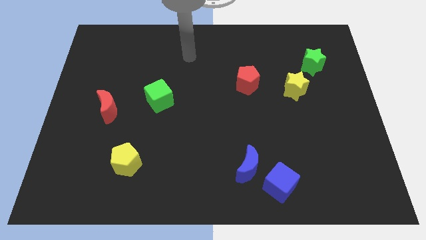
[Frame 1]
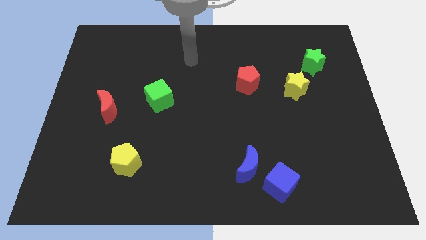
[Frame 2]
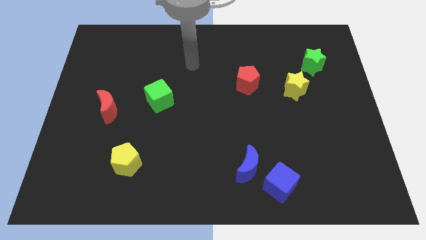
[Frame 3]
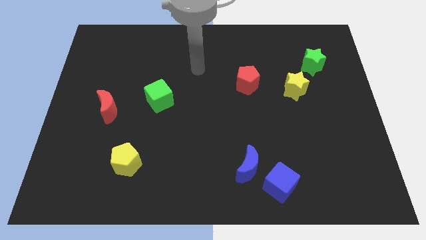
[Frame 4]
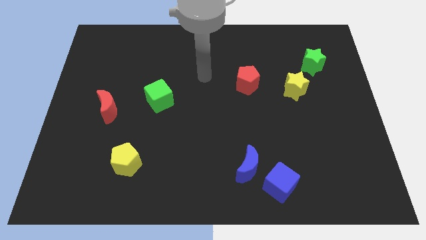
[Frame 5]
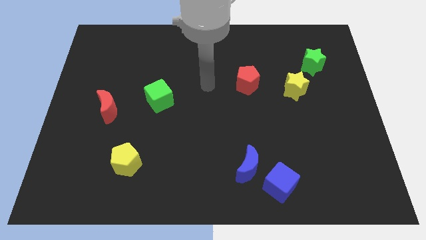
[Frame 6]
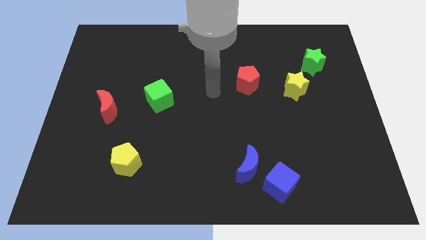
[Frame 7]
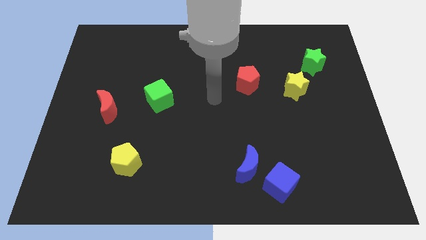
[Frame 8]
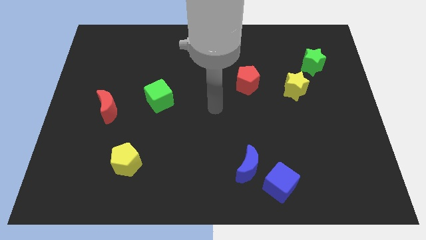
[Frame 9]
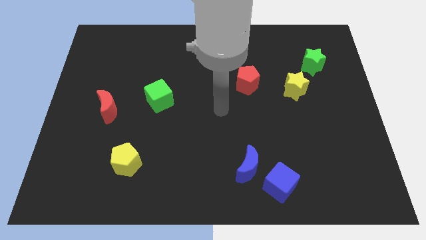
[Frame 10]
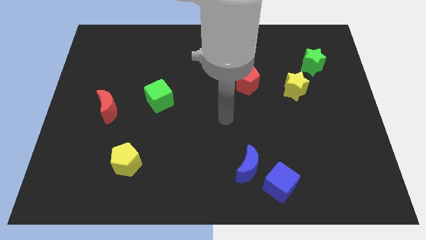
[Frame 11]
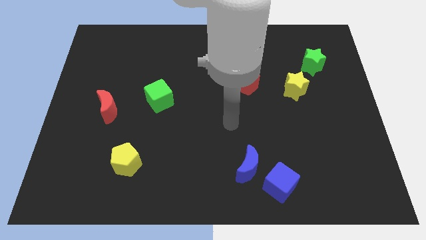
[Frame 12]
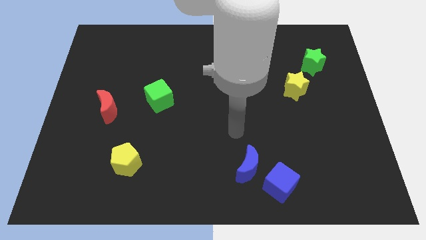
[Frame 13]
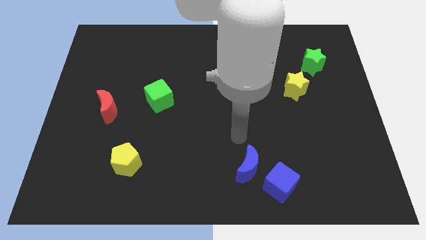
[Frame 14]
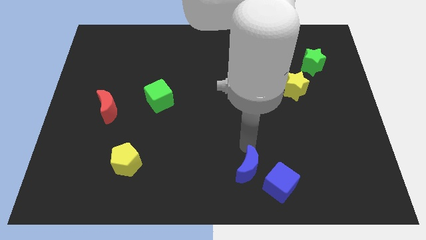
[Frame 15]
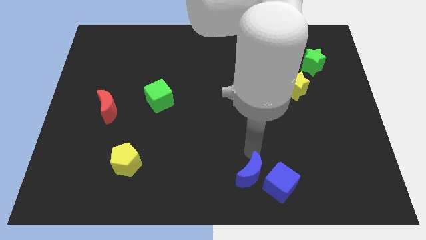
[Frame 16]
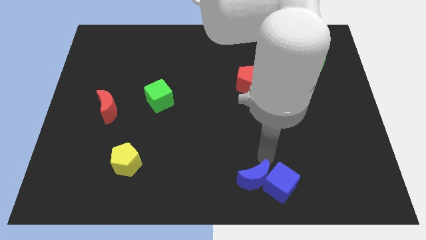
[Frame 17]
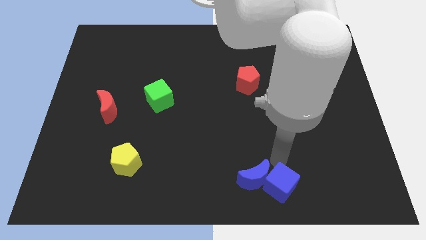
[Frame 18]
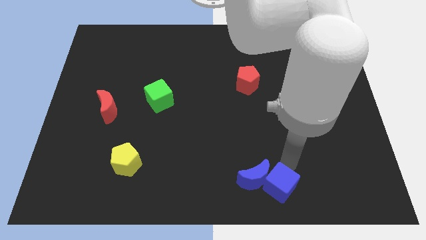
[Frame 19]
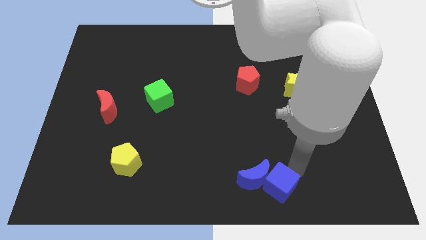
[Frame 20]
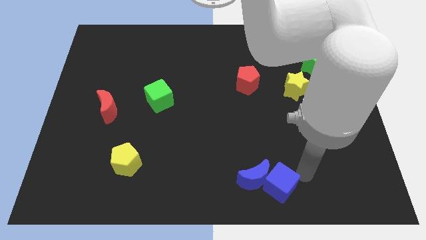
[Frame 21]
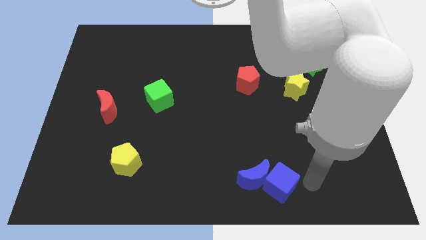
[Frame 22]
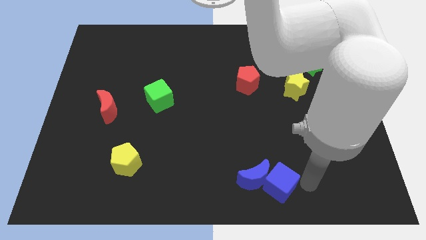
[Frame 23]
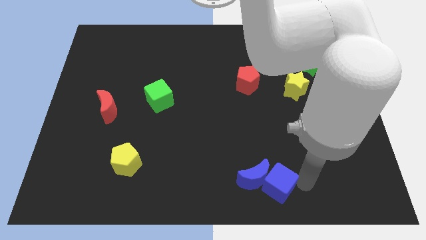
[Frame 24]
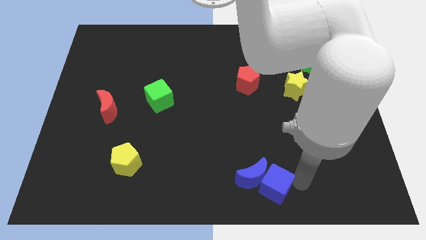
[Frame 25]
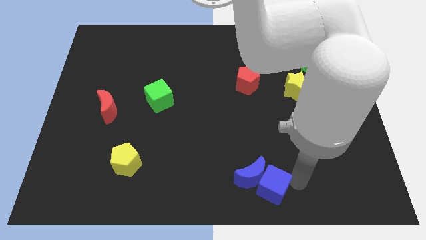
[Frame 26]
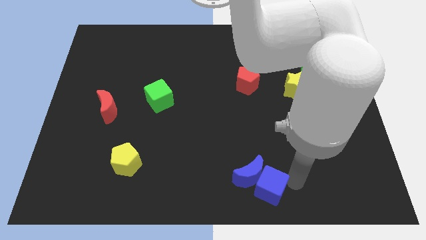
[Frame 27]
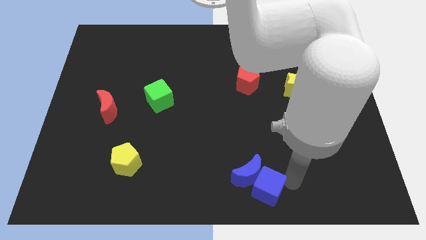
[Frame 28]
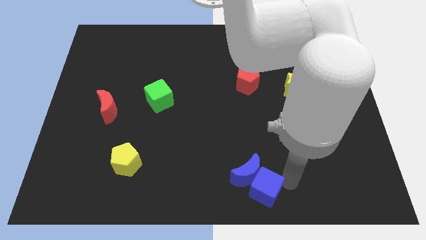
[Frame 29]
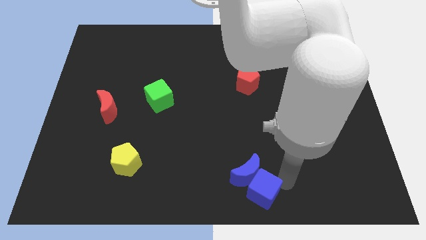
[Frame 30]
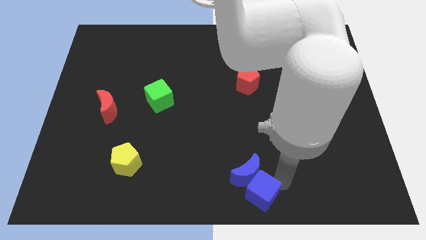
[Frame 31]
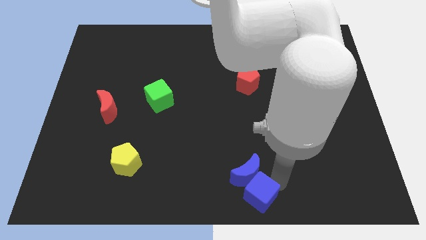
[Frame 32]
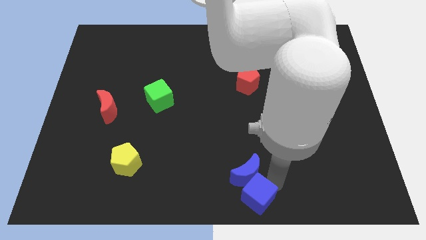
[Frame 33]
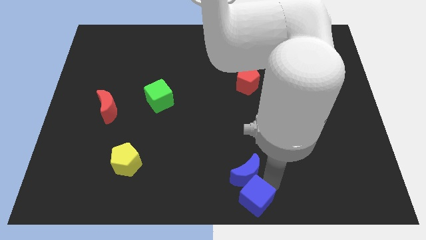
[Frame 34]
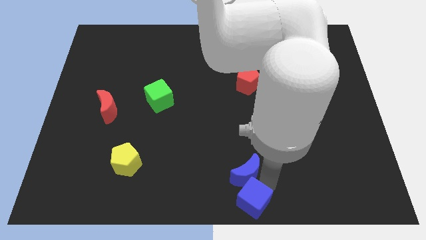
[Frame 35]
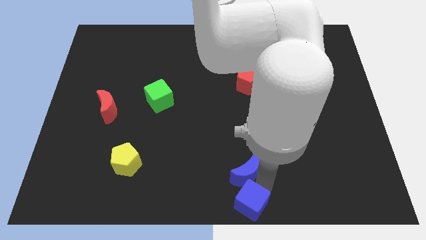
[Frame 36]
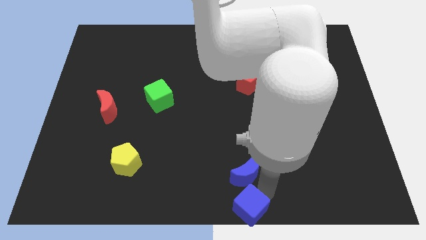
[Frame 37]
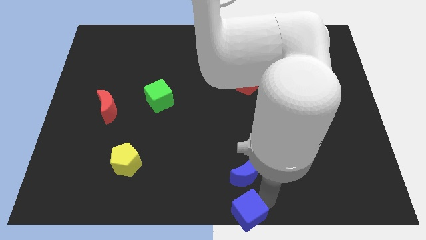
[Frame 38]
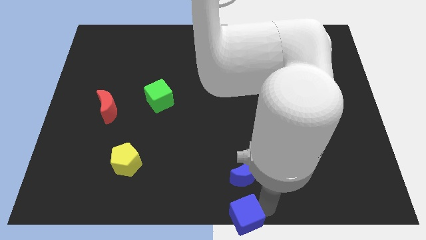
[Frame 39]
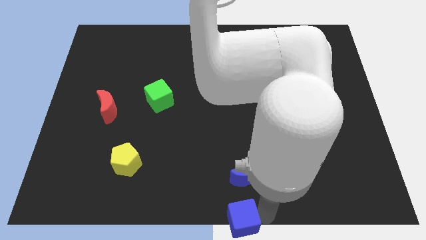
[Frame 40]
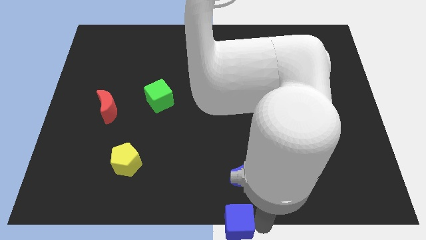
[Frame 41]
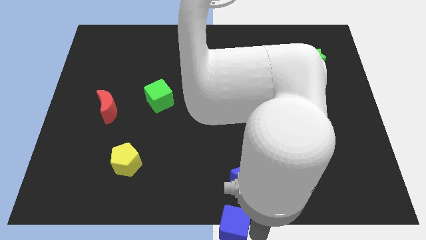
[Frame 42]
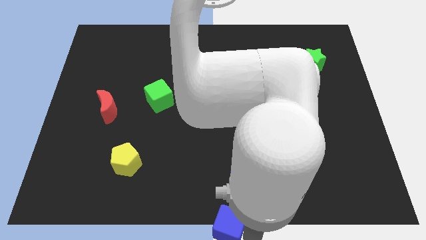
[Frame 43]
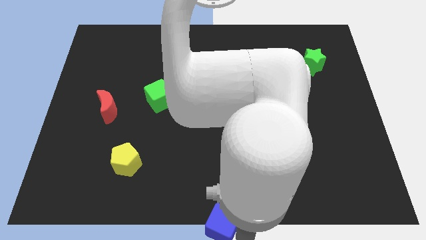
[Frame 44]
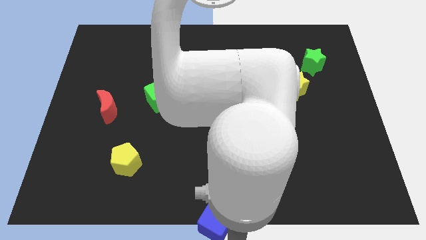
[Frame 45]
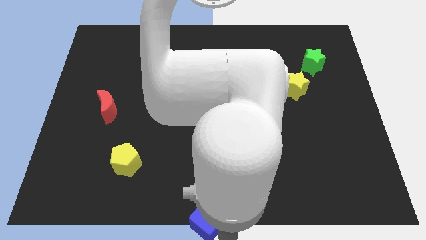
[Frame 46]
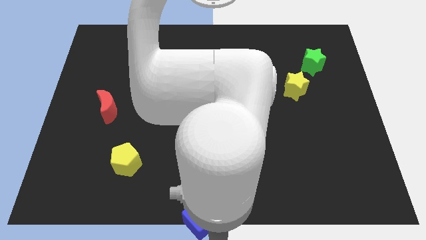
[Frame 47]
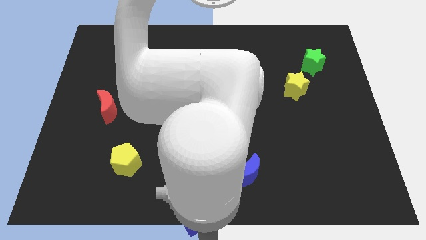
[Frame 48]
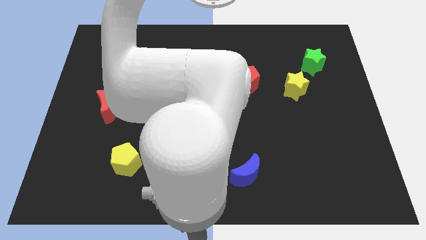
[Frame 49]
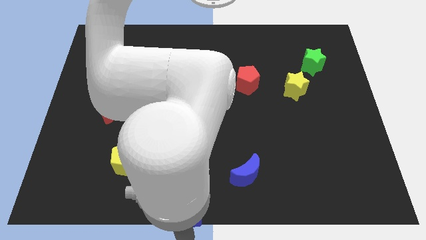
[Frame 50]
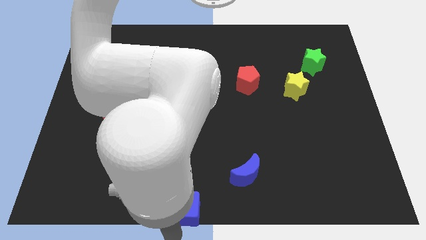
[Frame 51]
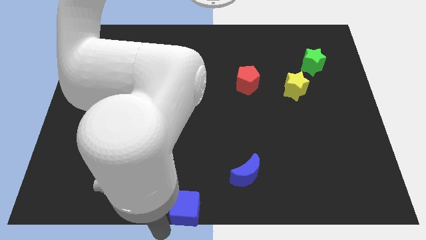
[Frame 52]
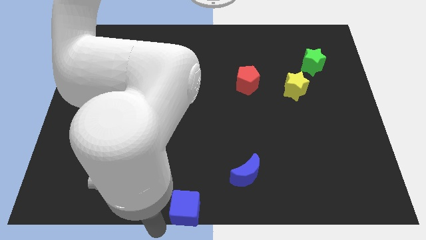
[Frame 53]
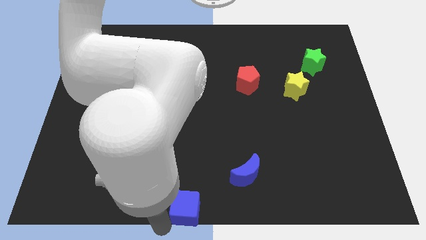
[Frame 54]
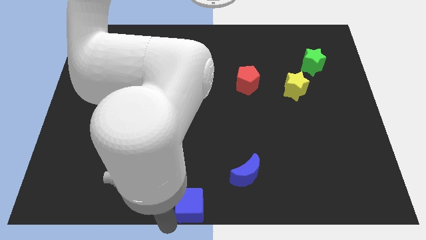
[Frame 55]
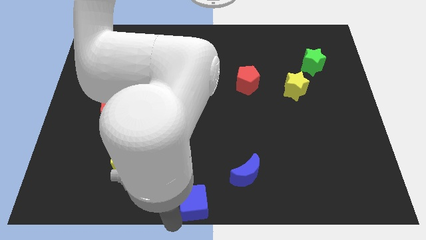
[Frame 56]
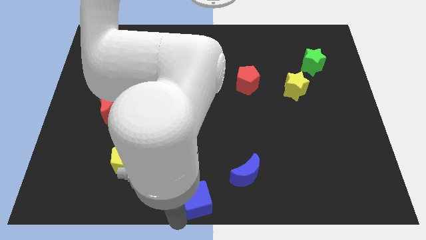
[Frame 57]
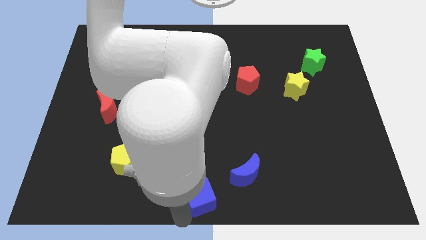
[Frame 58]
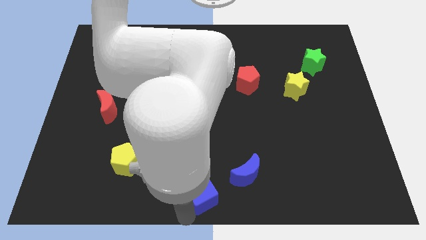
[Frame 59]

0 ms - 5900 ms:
move the blue cube just left of the blue moon

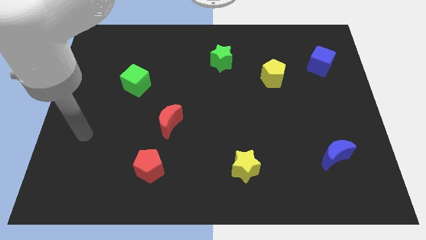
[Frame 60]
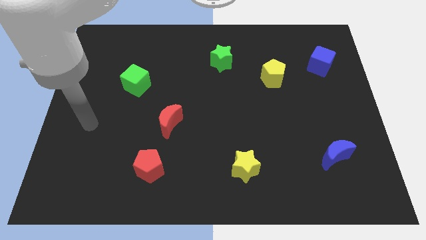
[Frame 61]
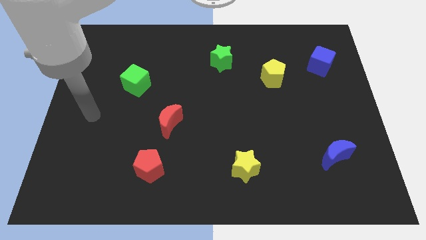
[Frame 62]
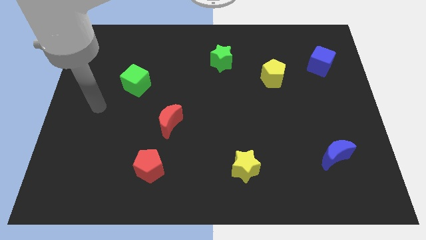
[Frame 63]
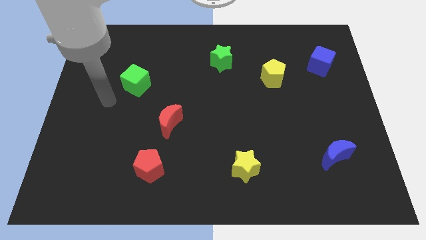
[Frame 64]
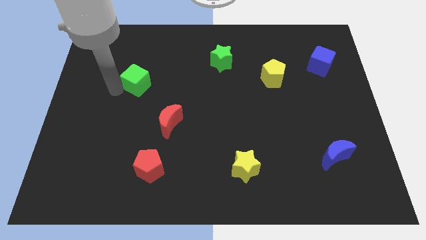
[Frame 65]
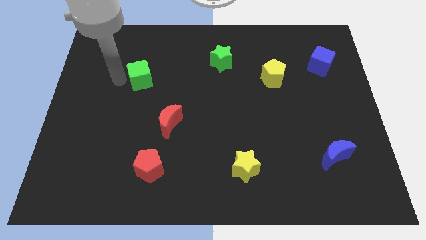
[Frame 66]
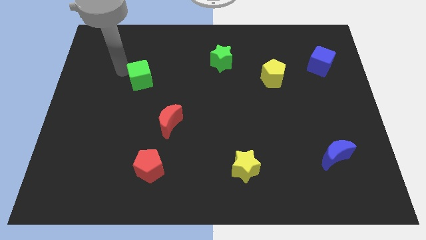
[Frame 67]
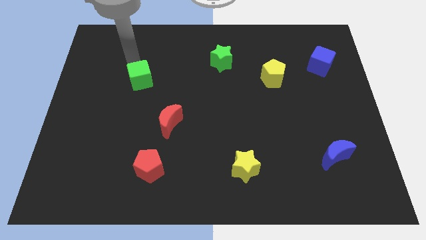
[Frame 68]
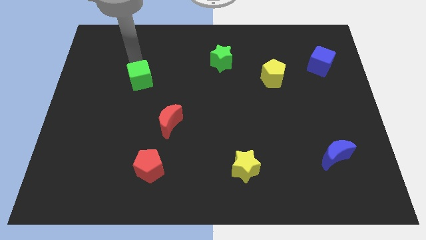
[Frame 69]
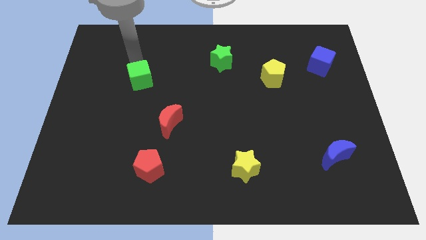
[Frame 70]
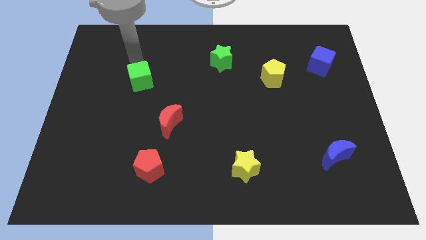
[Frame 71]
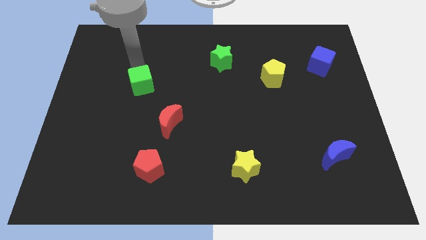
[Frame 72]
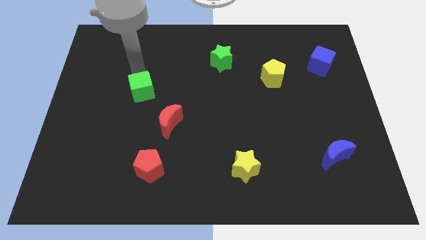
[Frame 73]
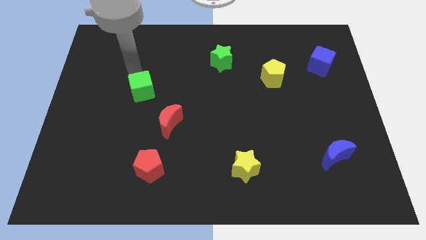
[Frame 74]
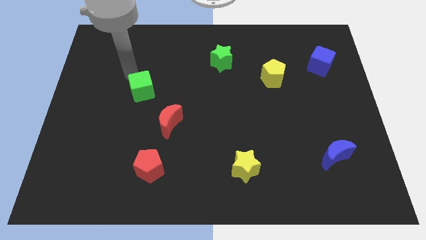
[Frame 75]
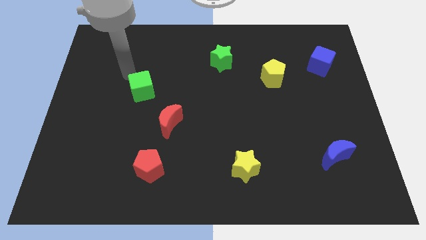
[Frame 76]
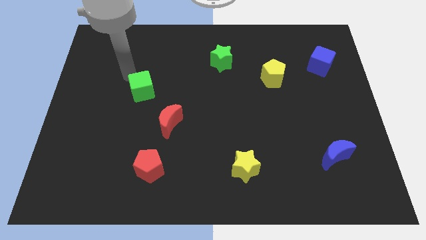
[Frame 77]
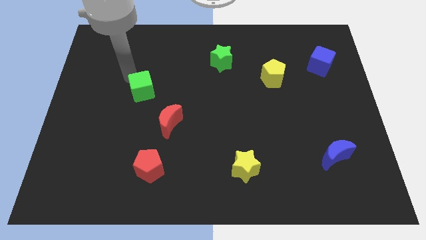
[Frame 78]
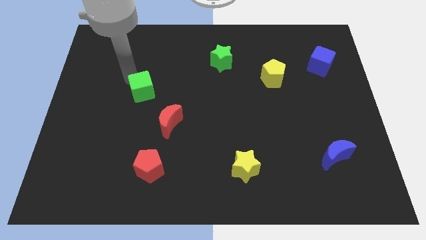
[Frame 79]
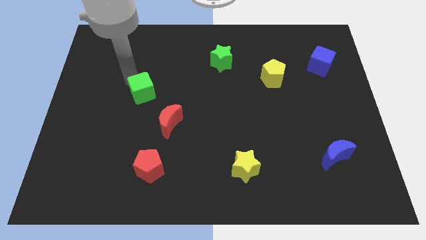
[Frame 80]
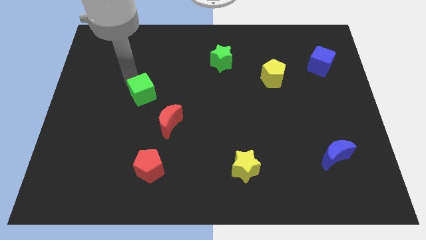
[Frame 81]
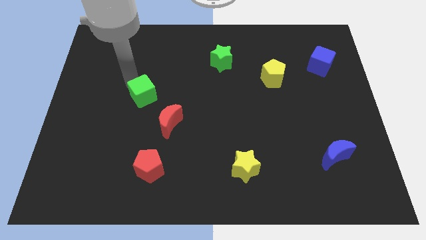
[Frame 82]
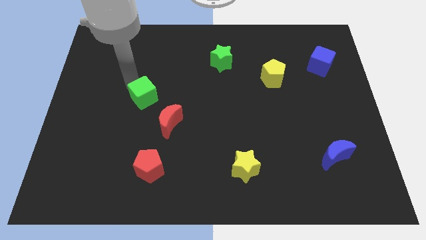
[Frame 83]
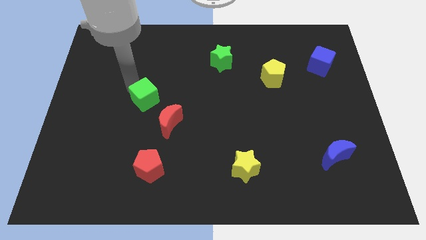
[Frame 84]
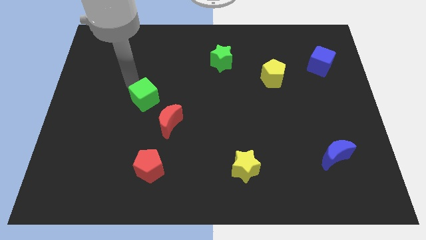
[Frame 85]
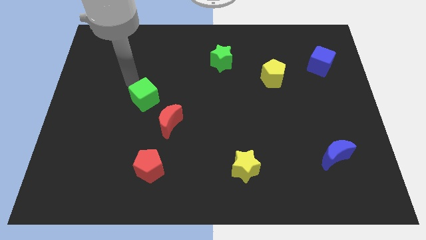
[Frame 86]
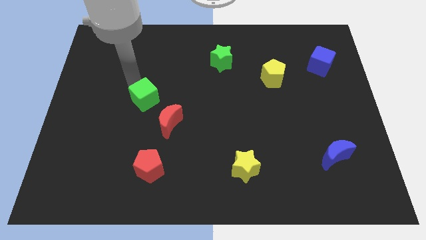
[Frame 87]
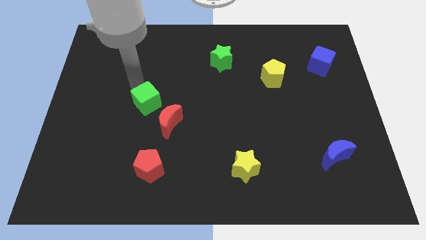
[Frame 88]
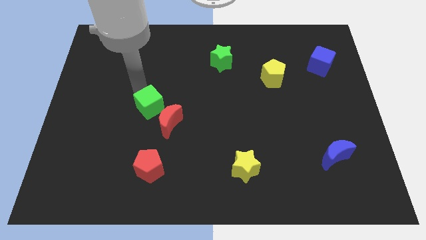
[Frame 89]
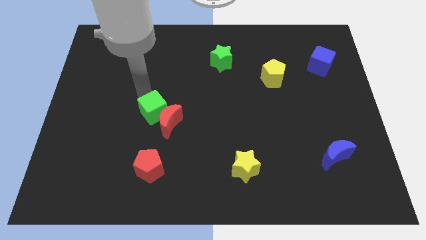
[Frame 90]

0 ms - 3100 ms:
slide the green cube to the top side of the red pentagon
